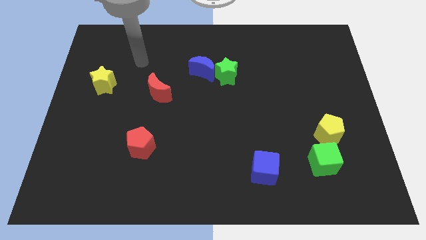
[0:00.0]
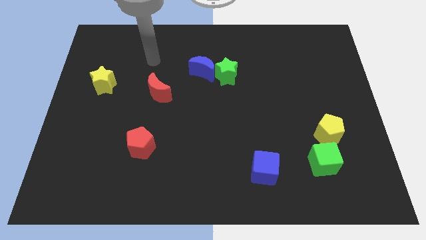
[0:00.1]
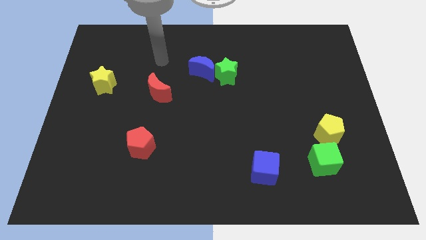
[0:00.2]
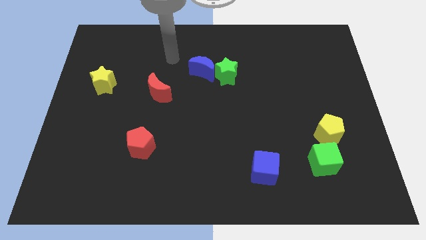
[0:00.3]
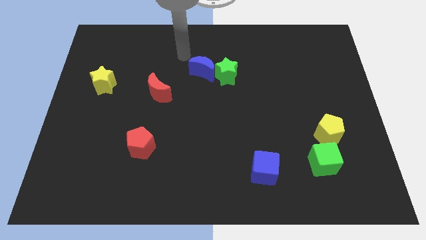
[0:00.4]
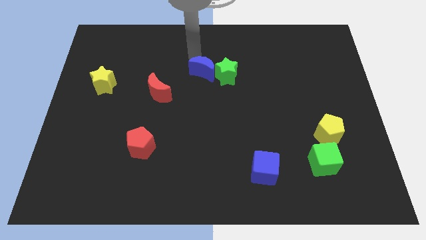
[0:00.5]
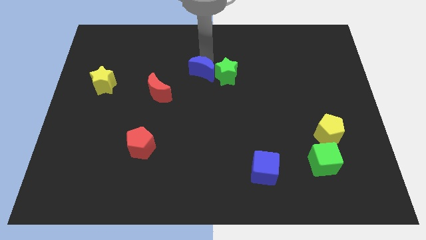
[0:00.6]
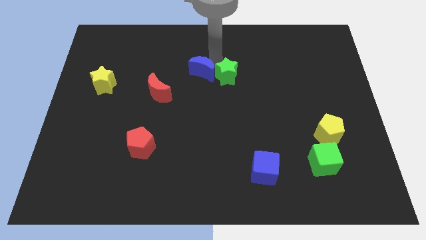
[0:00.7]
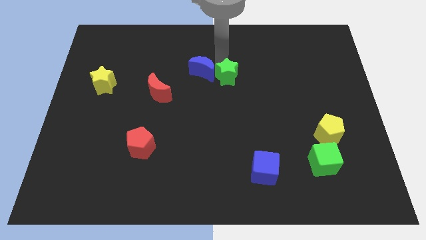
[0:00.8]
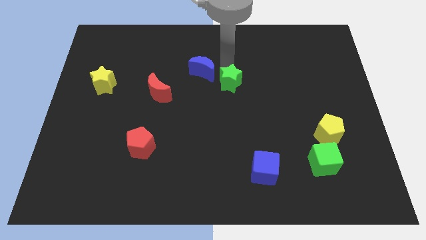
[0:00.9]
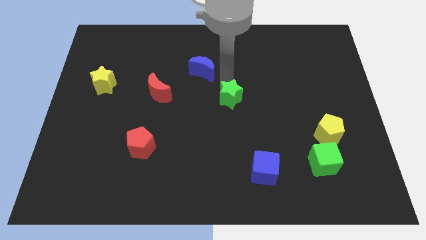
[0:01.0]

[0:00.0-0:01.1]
move the blue moon away from the green star

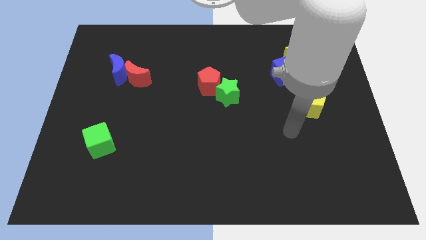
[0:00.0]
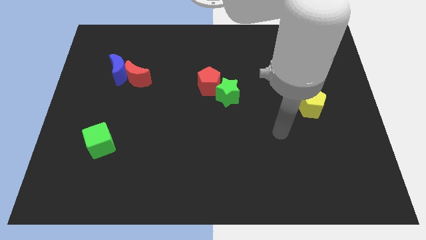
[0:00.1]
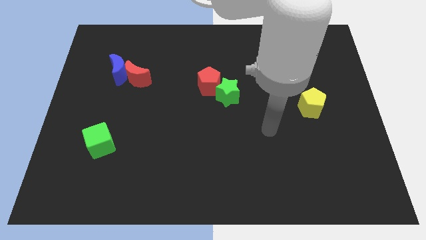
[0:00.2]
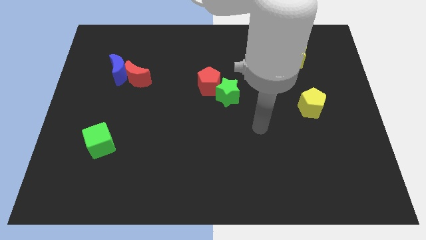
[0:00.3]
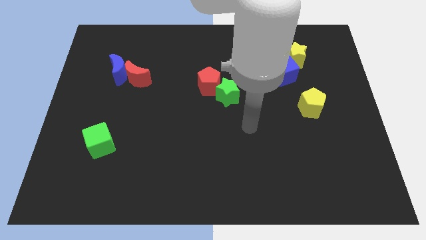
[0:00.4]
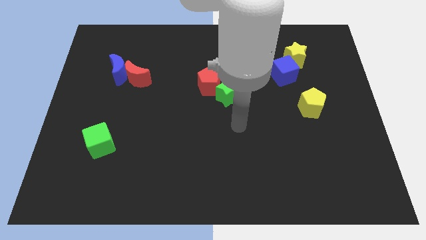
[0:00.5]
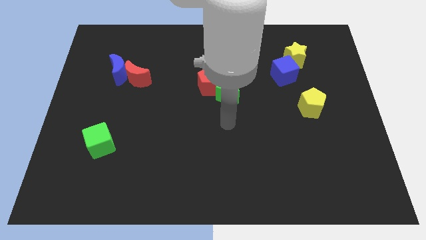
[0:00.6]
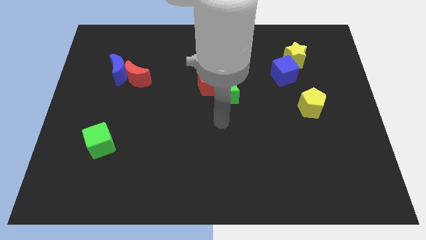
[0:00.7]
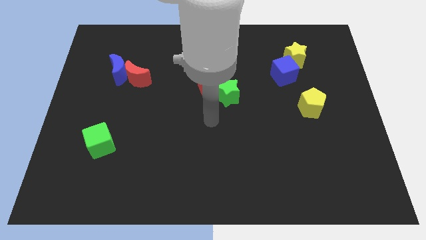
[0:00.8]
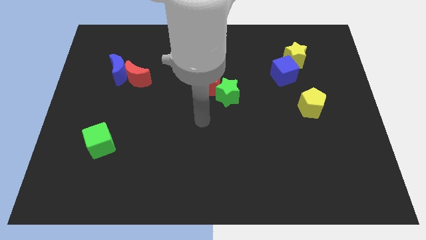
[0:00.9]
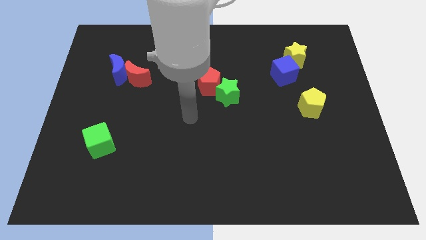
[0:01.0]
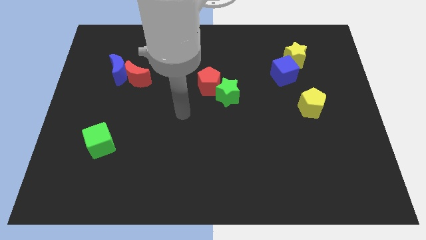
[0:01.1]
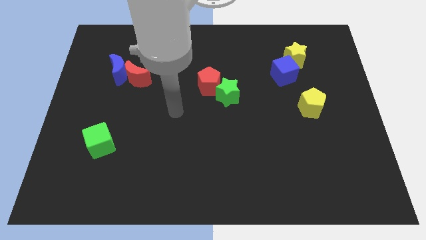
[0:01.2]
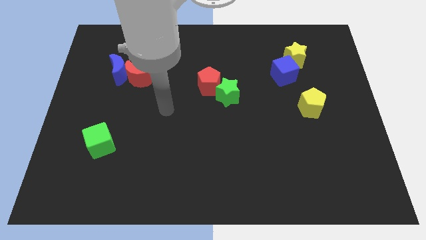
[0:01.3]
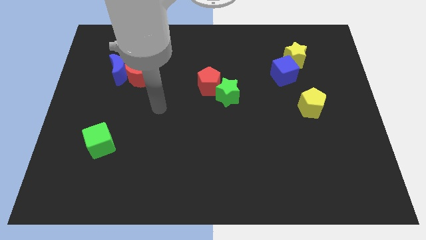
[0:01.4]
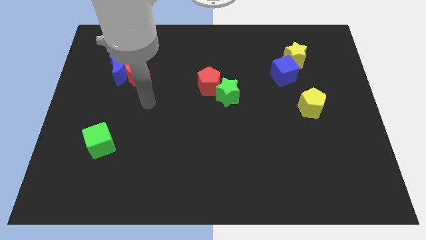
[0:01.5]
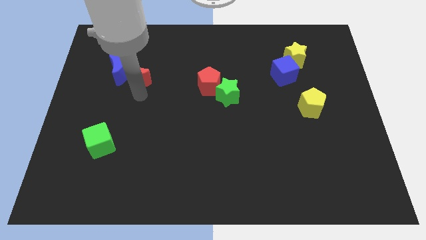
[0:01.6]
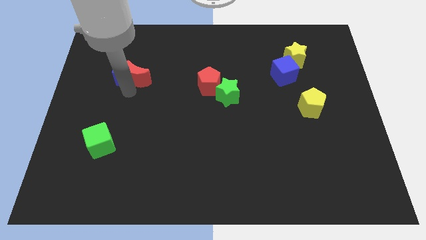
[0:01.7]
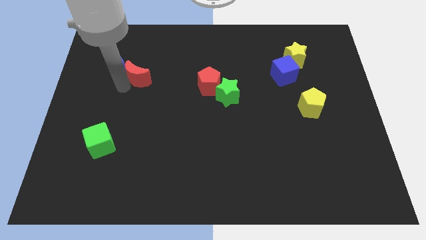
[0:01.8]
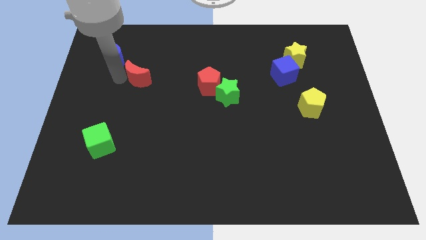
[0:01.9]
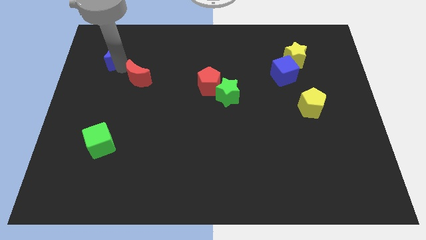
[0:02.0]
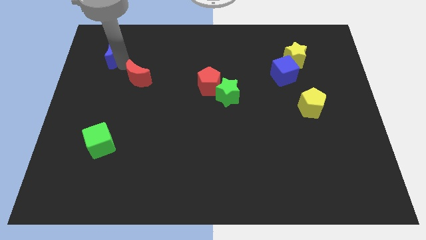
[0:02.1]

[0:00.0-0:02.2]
pull the red moon apart from the blue moon

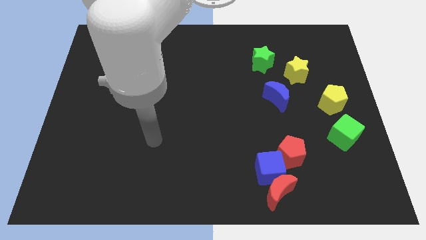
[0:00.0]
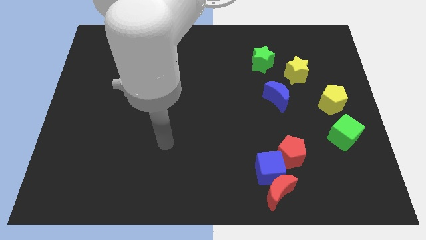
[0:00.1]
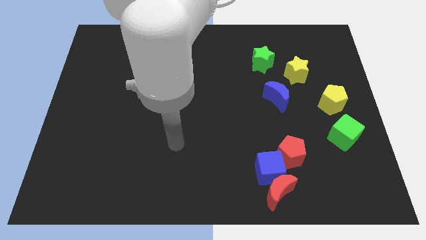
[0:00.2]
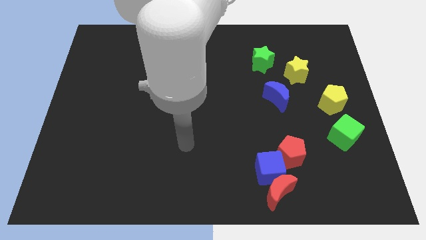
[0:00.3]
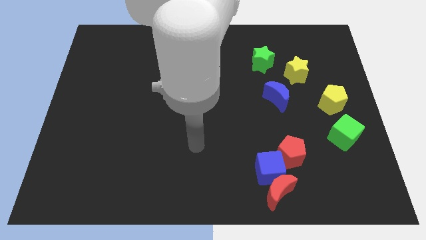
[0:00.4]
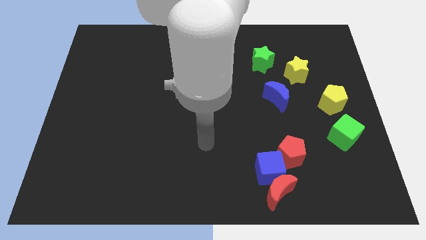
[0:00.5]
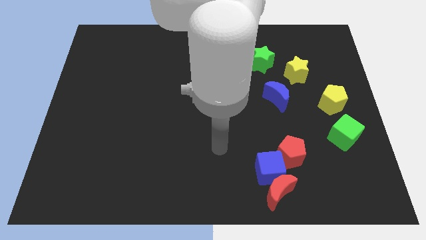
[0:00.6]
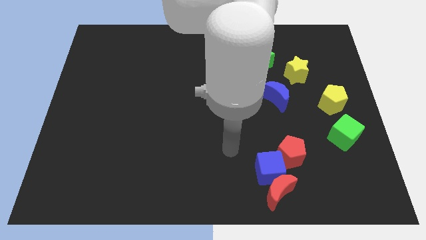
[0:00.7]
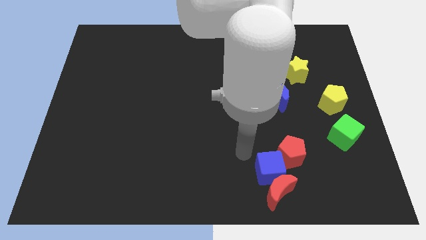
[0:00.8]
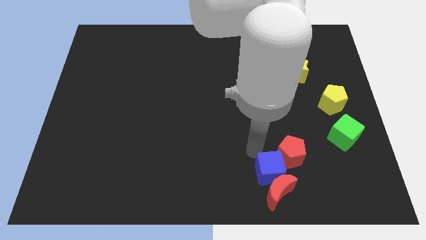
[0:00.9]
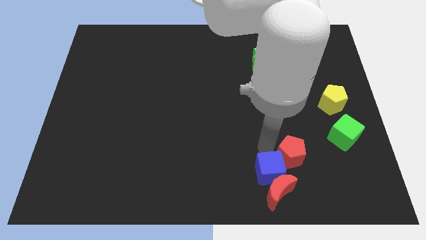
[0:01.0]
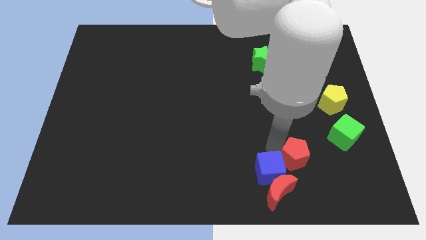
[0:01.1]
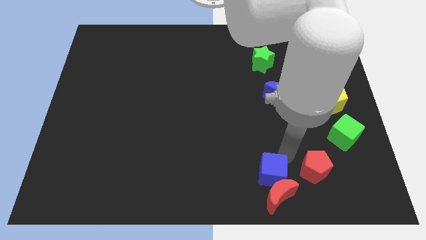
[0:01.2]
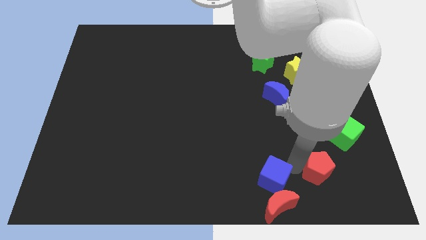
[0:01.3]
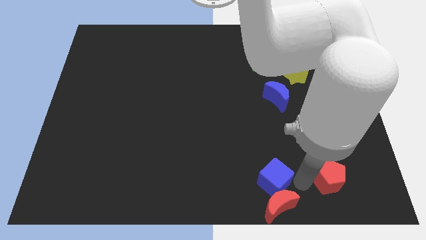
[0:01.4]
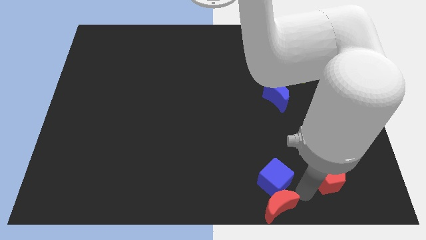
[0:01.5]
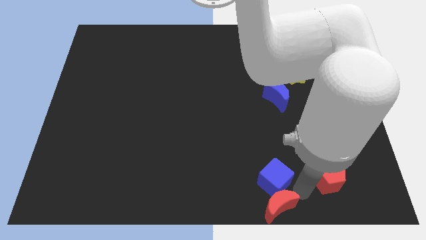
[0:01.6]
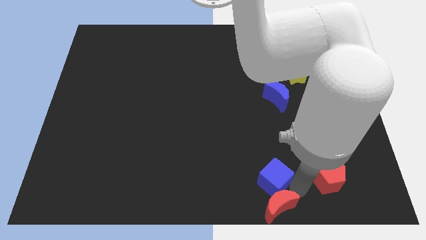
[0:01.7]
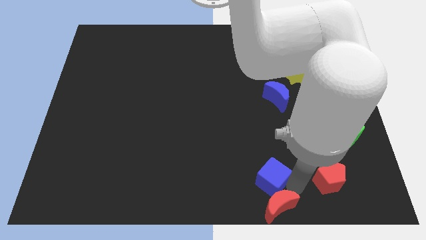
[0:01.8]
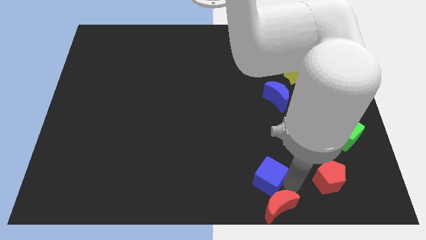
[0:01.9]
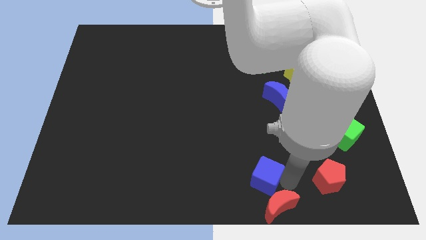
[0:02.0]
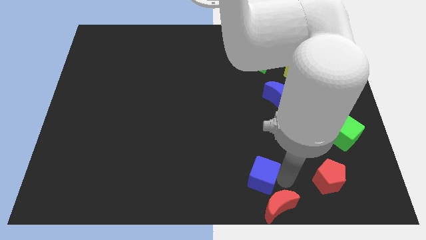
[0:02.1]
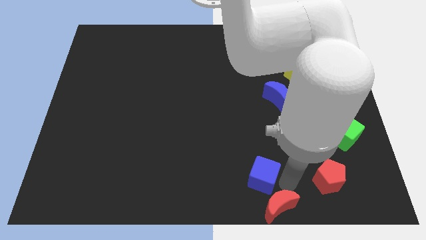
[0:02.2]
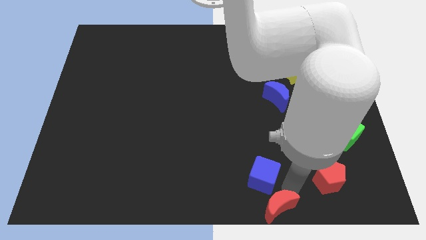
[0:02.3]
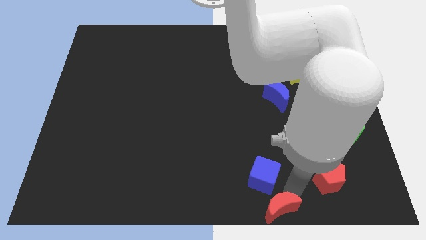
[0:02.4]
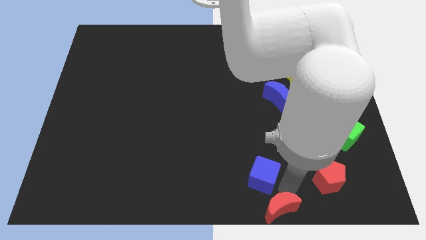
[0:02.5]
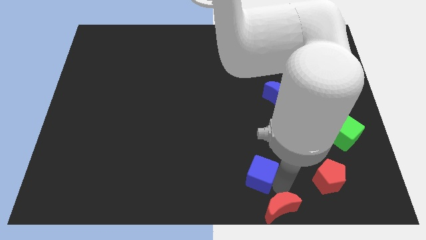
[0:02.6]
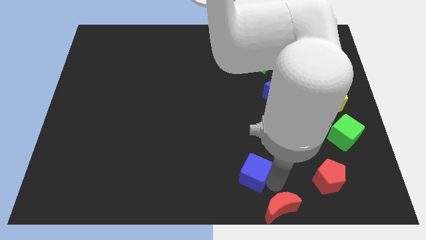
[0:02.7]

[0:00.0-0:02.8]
pull the blue cube apart from the red moon and red pentagon

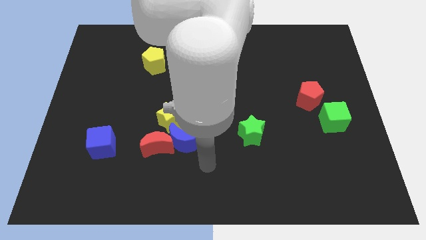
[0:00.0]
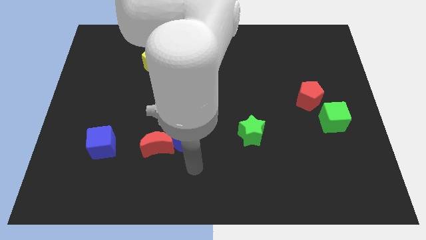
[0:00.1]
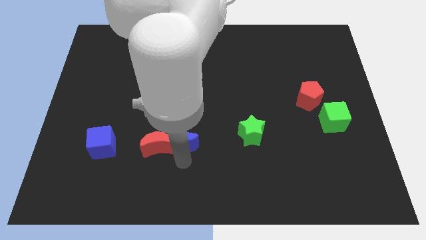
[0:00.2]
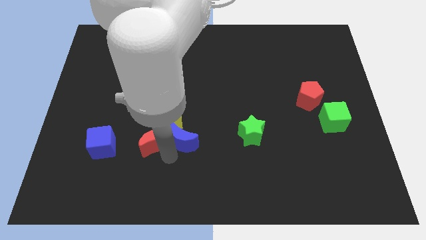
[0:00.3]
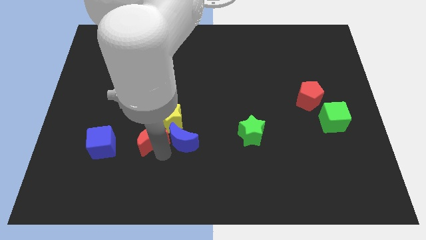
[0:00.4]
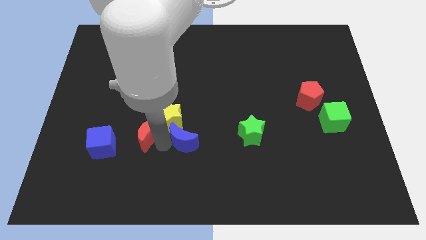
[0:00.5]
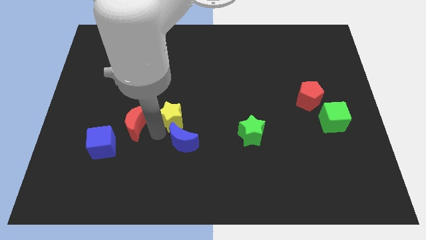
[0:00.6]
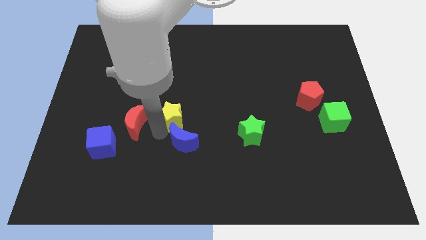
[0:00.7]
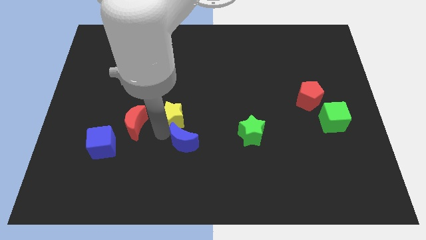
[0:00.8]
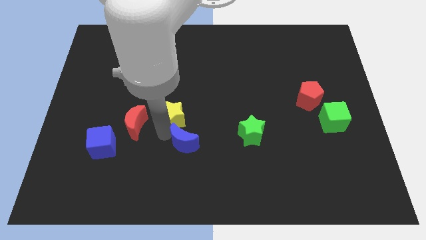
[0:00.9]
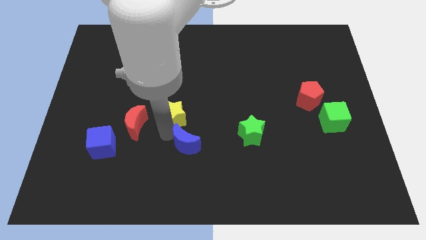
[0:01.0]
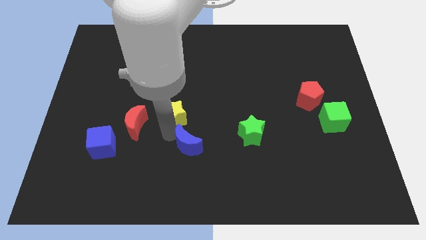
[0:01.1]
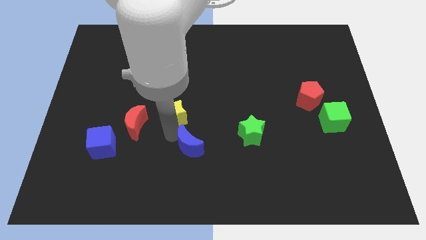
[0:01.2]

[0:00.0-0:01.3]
pull the blue moon apart from the red moon and yellow star

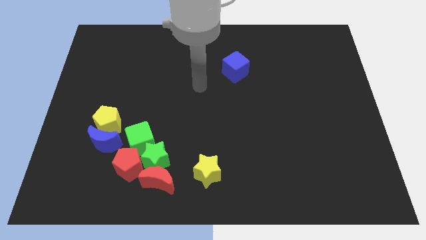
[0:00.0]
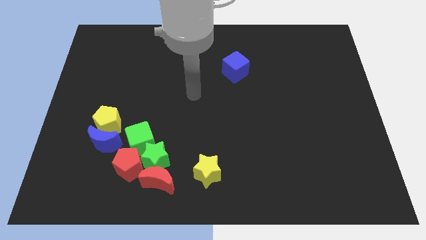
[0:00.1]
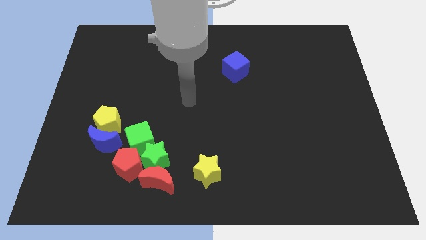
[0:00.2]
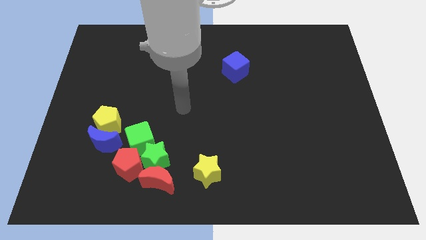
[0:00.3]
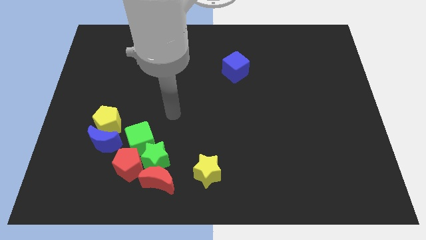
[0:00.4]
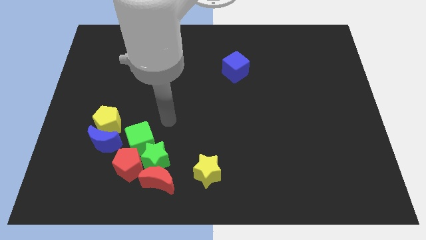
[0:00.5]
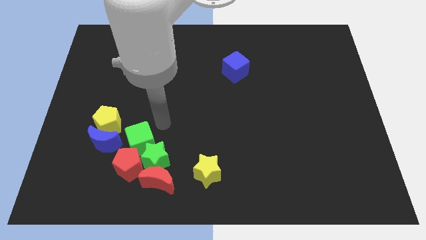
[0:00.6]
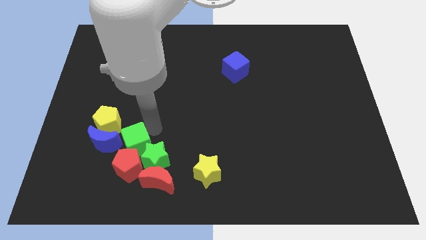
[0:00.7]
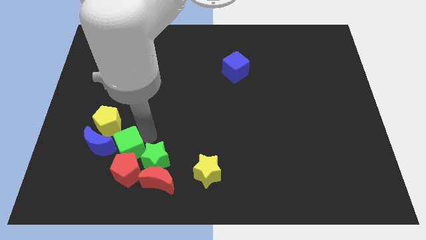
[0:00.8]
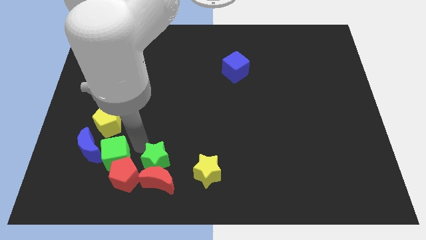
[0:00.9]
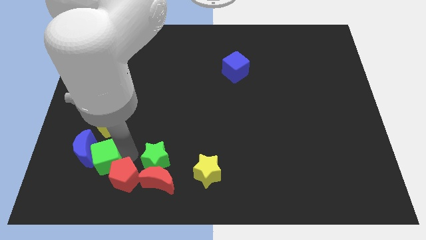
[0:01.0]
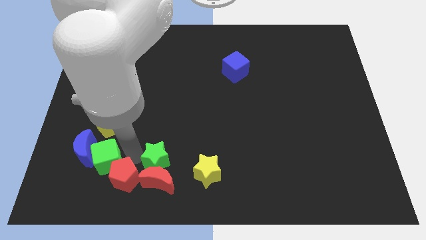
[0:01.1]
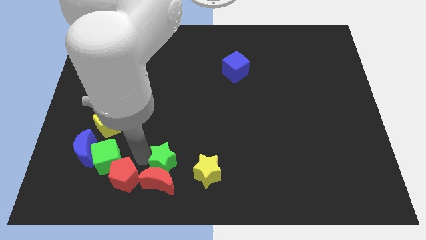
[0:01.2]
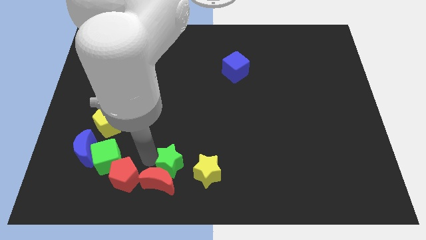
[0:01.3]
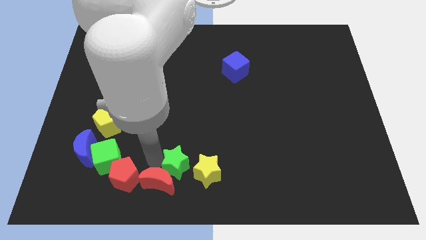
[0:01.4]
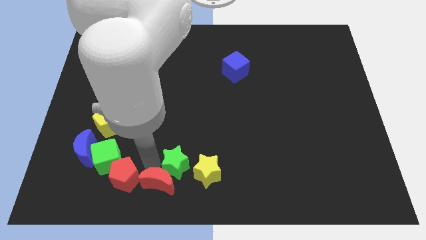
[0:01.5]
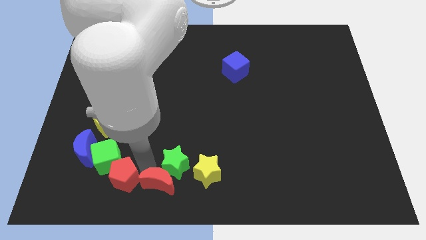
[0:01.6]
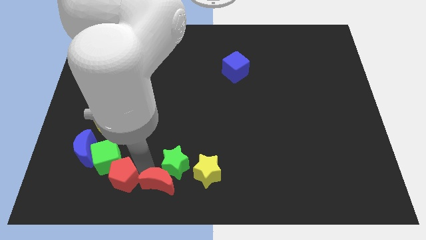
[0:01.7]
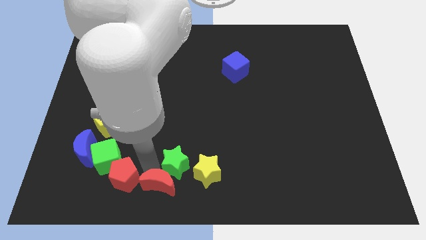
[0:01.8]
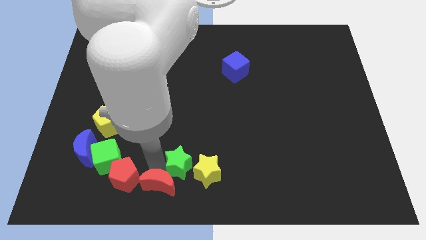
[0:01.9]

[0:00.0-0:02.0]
pull the green star apart from the group
